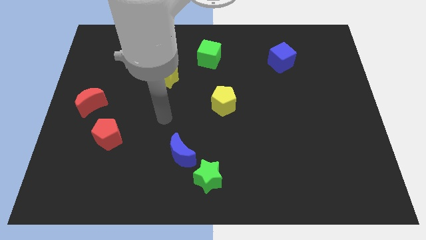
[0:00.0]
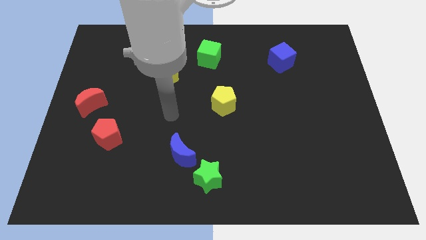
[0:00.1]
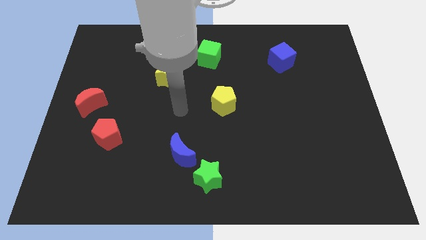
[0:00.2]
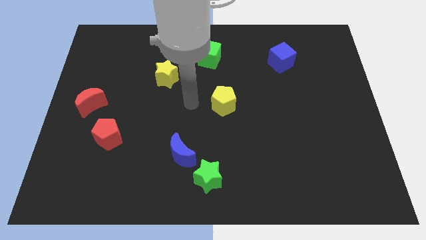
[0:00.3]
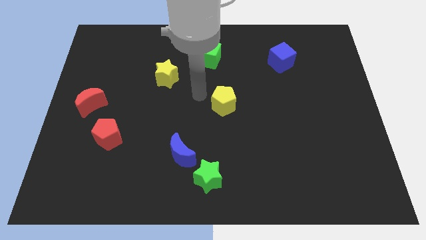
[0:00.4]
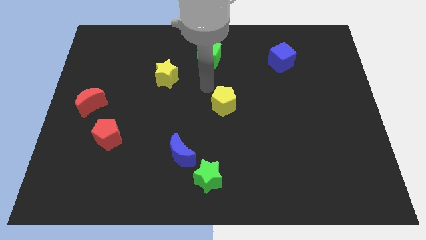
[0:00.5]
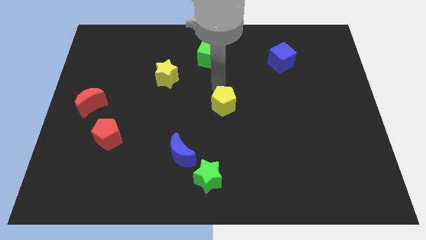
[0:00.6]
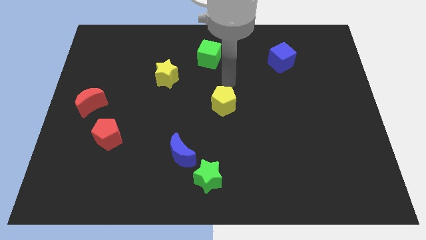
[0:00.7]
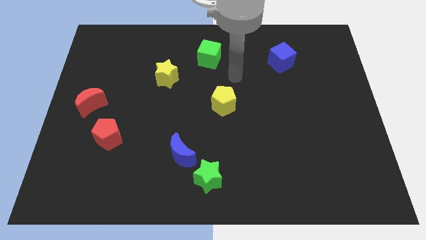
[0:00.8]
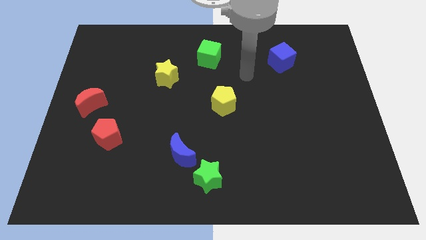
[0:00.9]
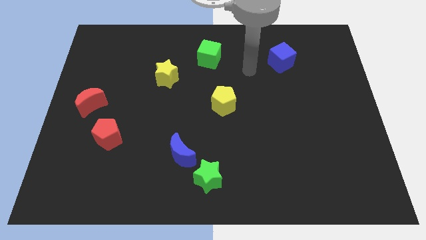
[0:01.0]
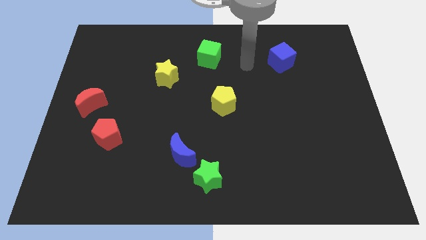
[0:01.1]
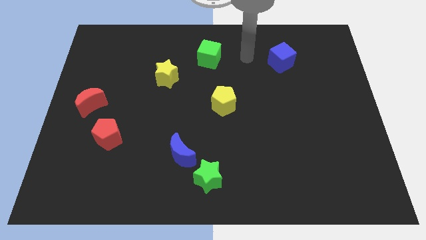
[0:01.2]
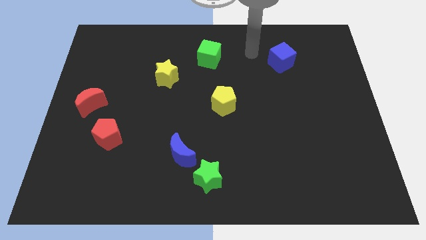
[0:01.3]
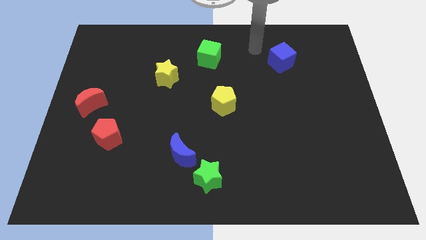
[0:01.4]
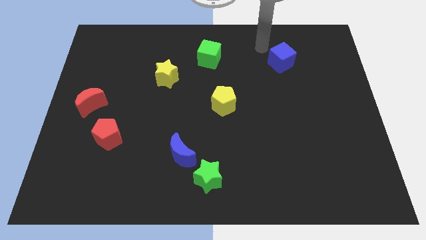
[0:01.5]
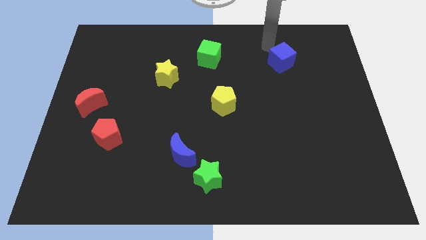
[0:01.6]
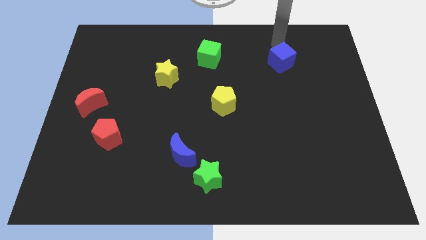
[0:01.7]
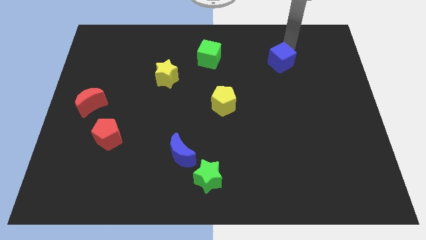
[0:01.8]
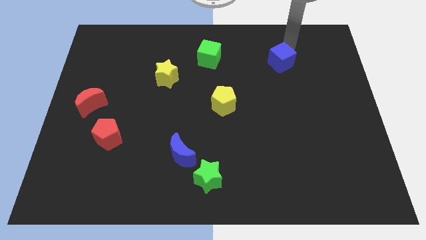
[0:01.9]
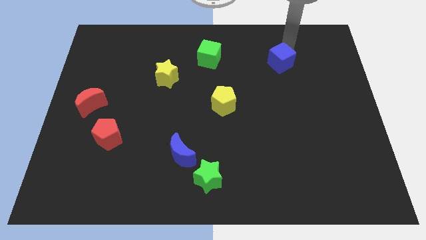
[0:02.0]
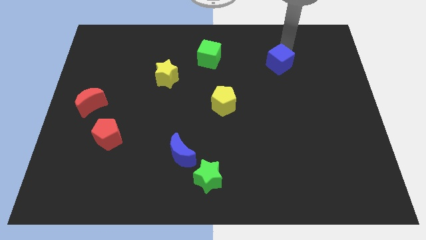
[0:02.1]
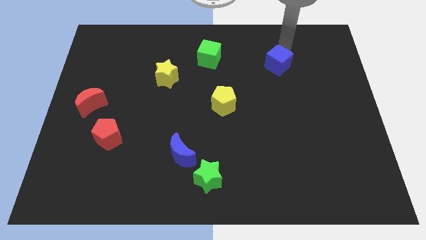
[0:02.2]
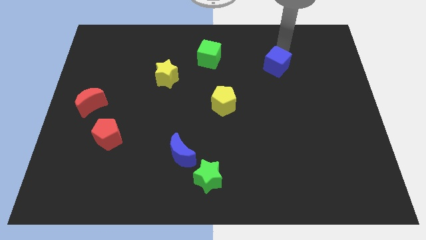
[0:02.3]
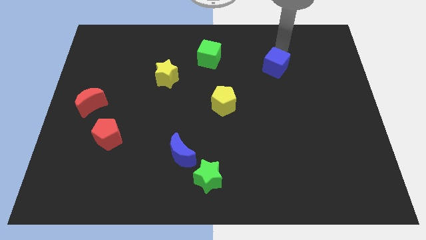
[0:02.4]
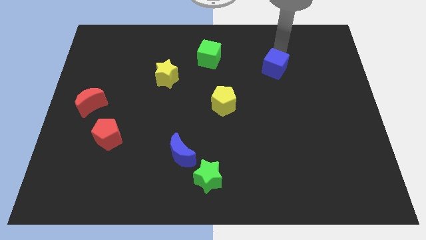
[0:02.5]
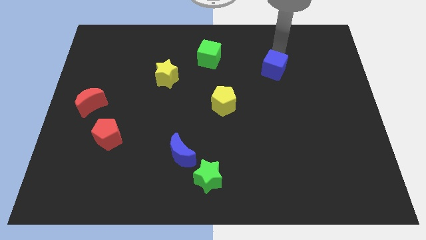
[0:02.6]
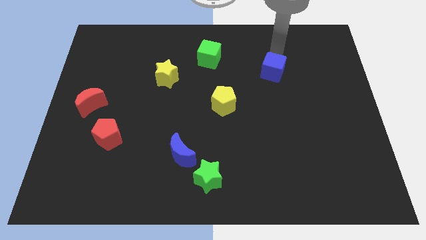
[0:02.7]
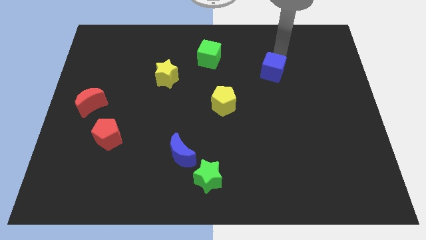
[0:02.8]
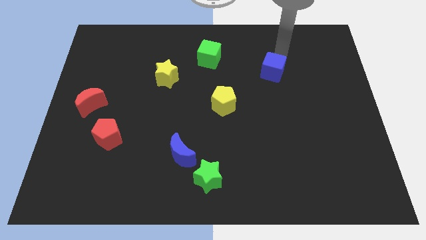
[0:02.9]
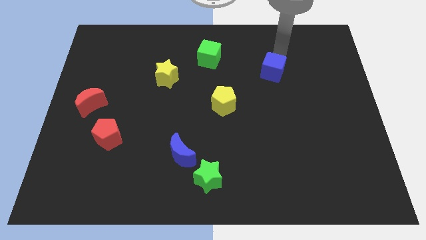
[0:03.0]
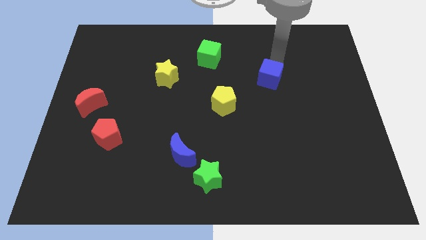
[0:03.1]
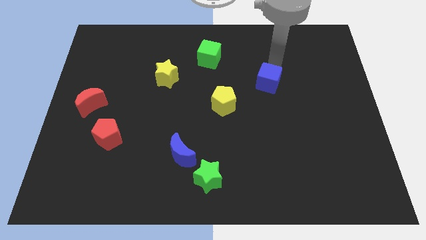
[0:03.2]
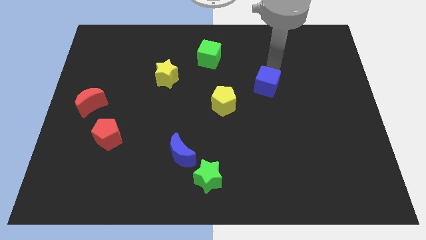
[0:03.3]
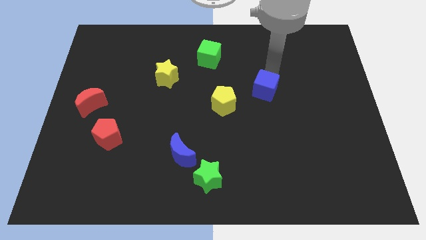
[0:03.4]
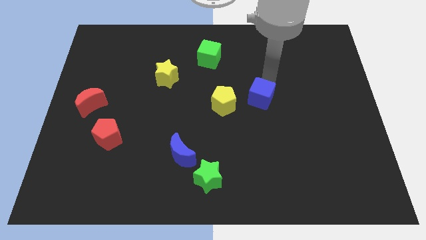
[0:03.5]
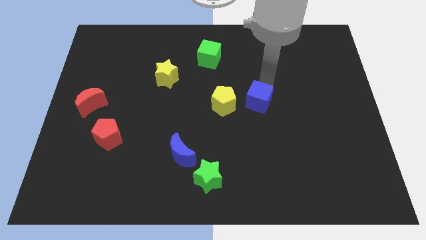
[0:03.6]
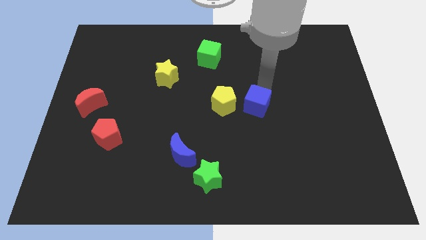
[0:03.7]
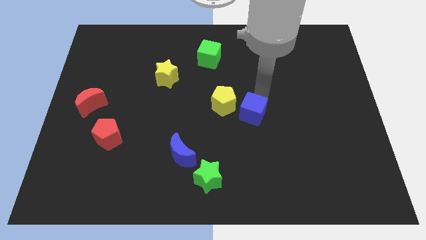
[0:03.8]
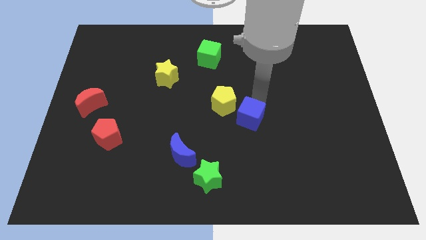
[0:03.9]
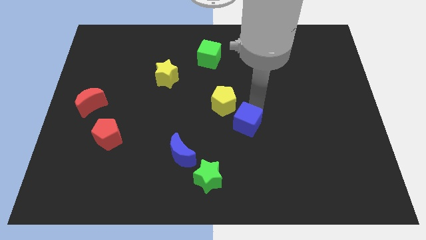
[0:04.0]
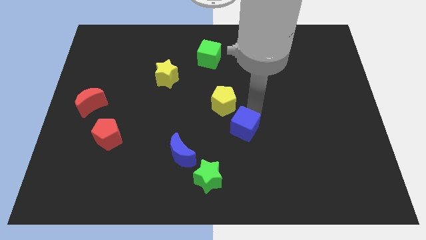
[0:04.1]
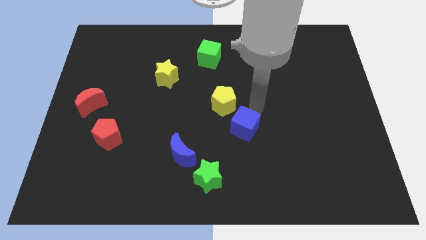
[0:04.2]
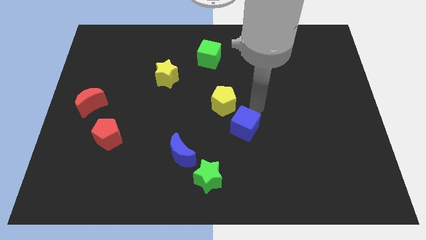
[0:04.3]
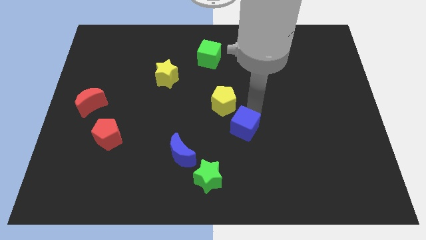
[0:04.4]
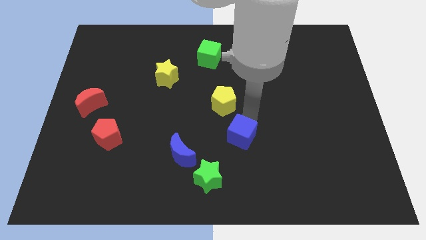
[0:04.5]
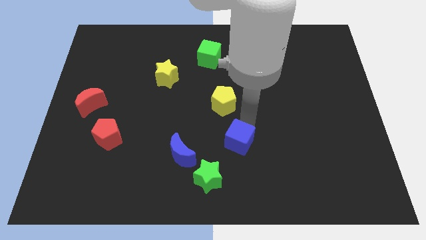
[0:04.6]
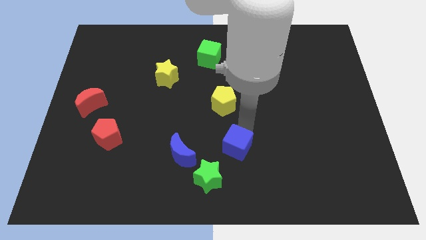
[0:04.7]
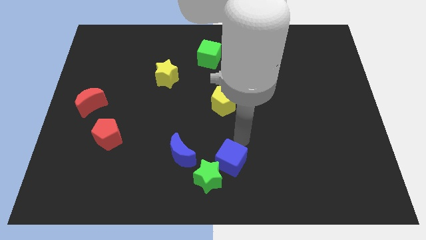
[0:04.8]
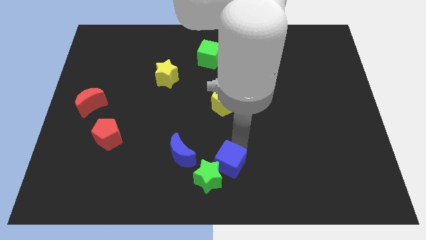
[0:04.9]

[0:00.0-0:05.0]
put the blue cube towards the green star

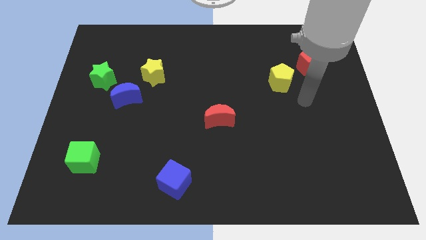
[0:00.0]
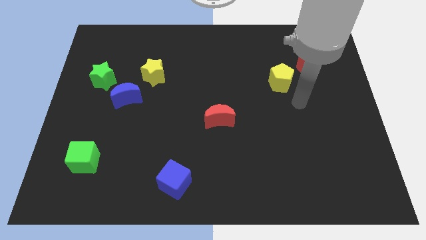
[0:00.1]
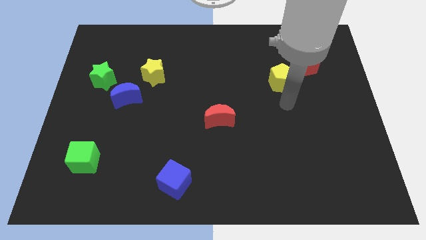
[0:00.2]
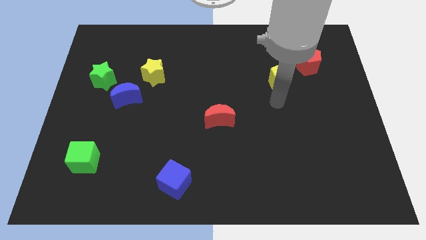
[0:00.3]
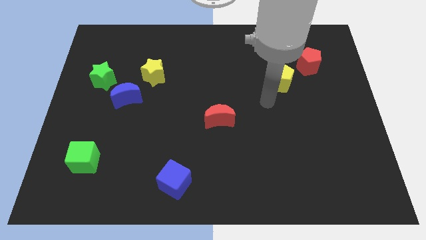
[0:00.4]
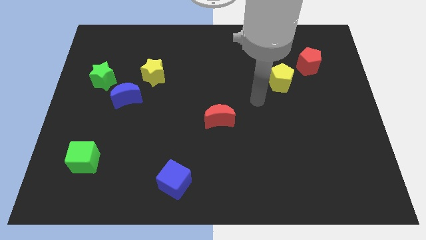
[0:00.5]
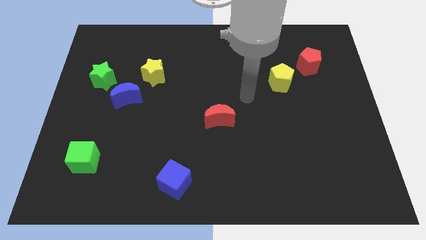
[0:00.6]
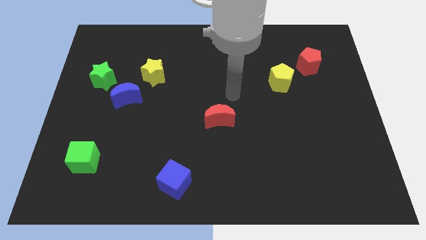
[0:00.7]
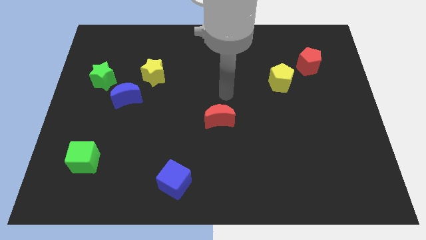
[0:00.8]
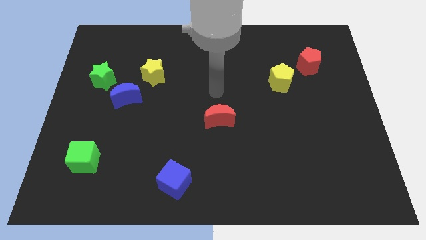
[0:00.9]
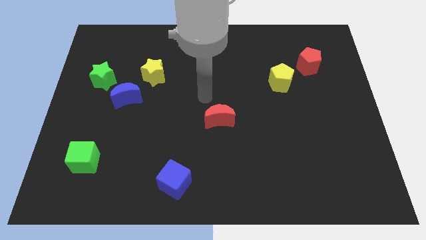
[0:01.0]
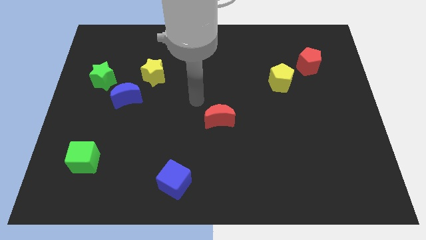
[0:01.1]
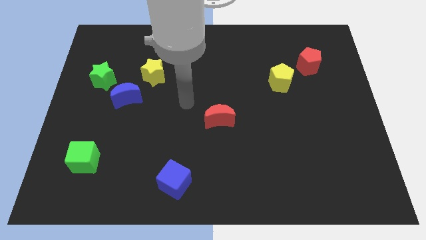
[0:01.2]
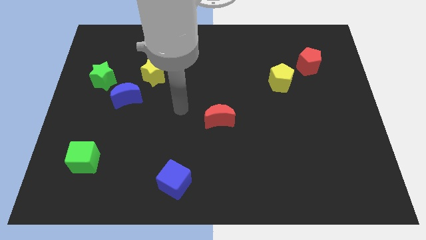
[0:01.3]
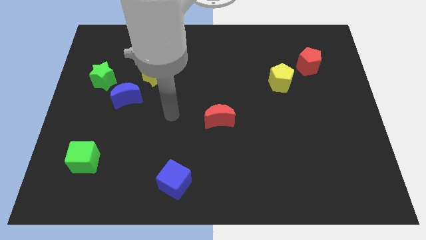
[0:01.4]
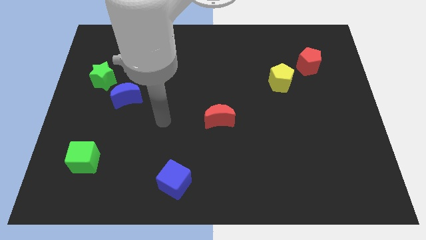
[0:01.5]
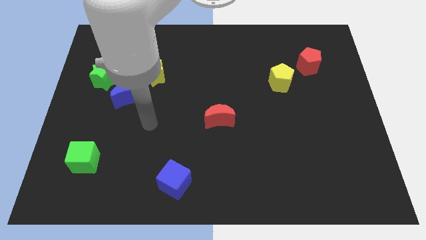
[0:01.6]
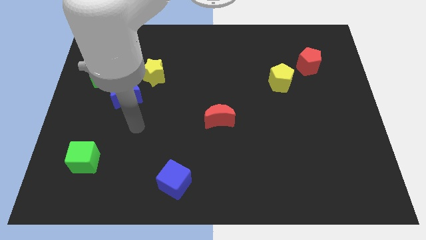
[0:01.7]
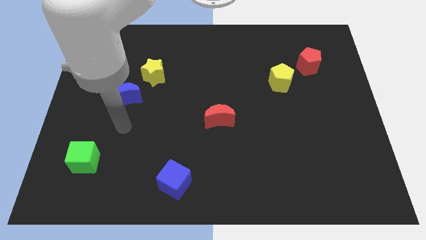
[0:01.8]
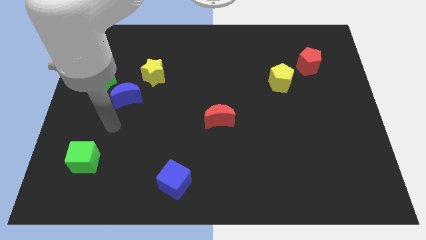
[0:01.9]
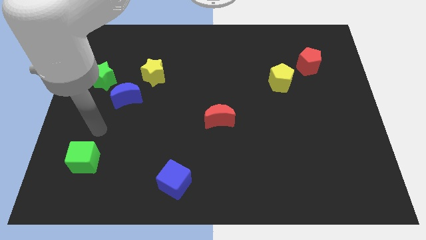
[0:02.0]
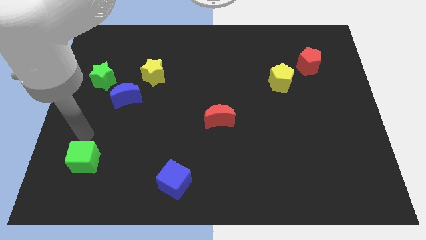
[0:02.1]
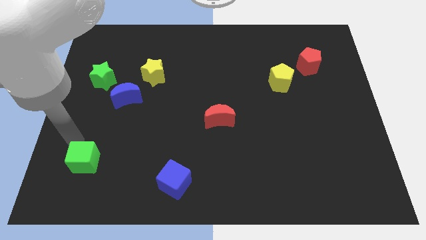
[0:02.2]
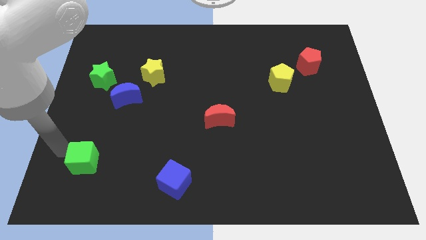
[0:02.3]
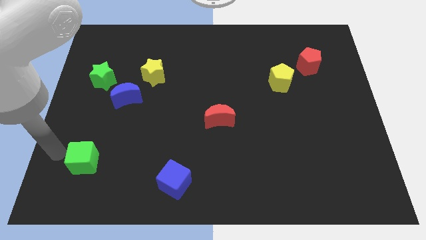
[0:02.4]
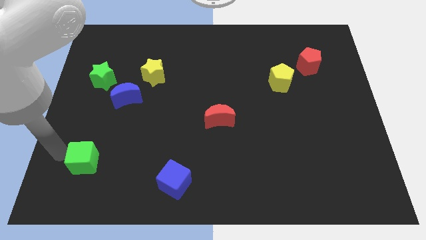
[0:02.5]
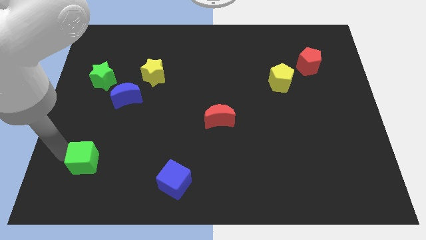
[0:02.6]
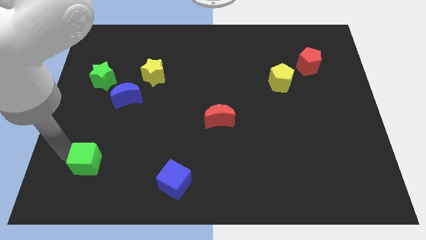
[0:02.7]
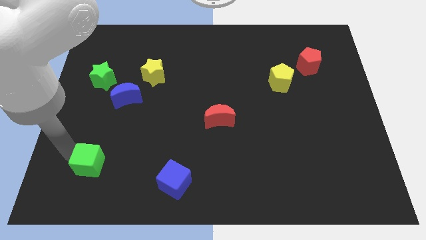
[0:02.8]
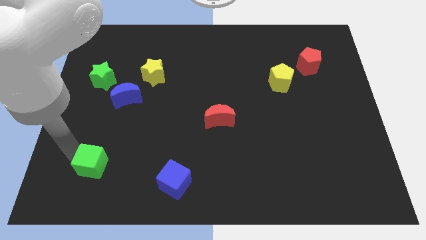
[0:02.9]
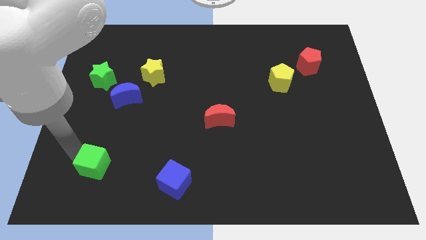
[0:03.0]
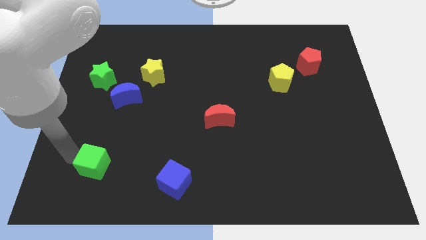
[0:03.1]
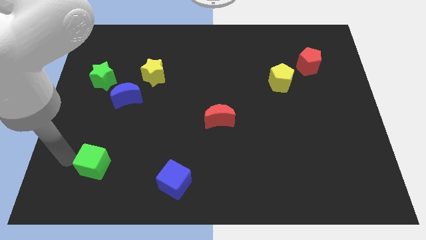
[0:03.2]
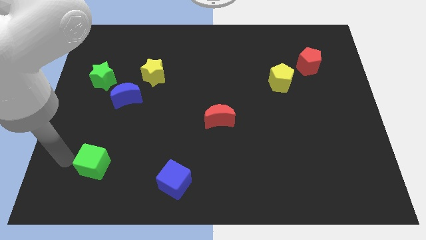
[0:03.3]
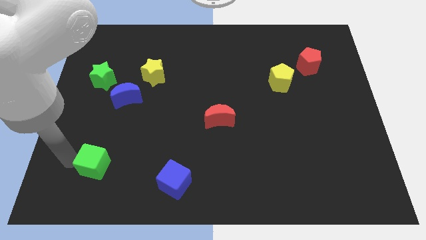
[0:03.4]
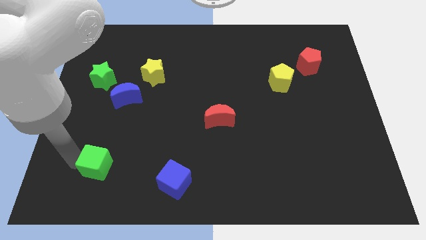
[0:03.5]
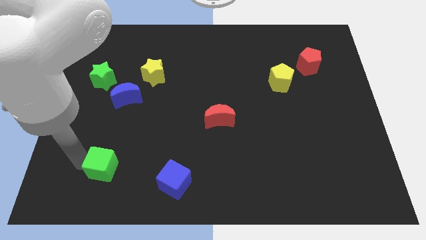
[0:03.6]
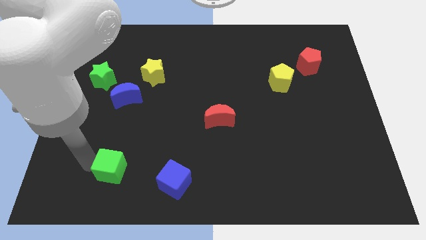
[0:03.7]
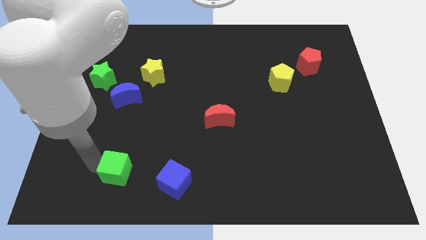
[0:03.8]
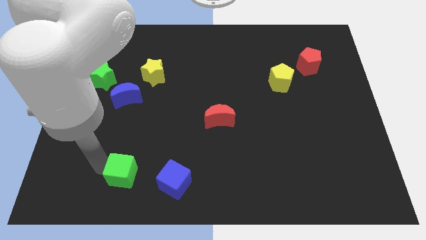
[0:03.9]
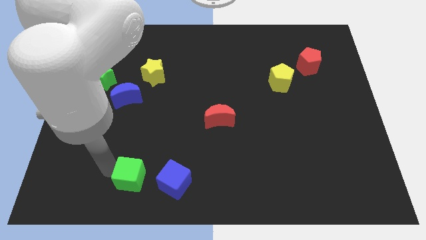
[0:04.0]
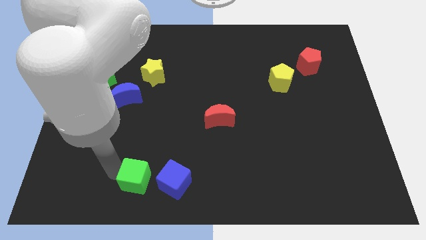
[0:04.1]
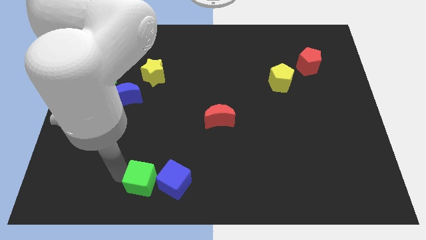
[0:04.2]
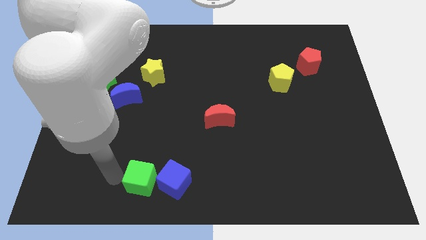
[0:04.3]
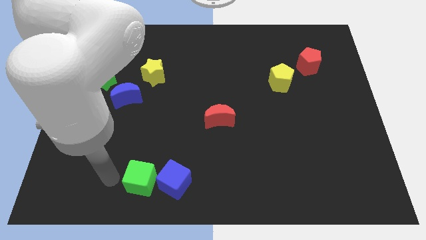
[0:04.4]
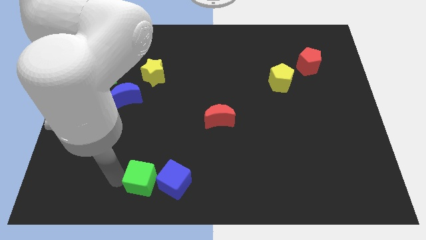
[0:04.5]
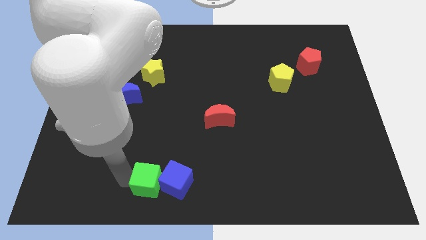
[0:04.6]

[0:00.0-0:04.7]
push the green cube towards the blue cube
